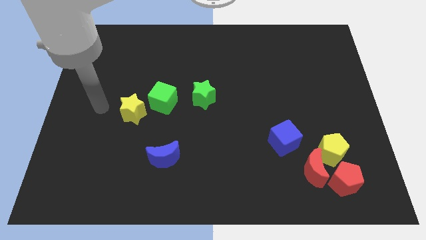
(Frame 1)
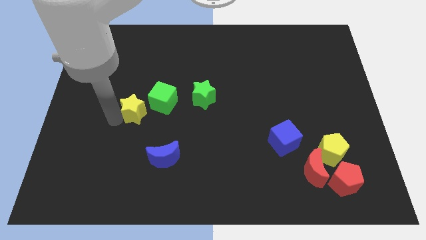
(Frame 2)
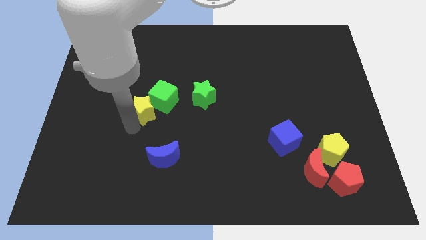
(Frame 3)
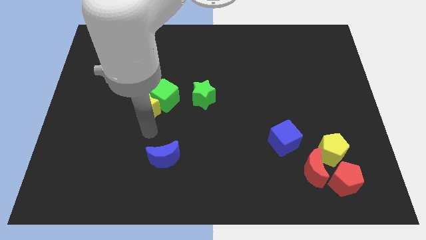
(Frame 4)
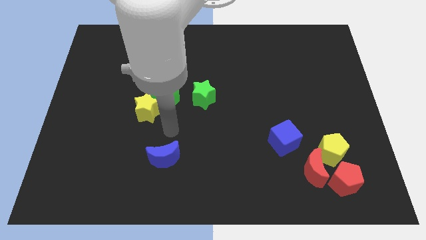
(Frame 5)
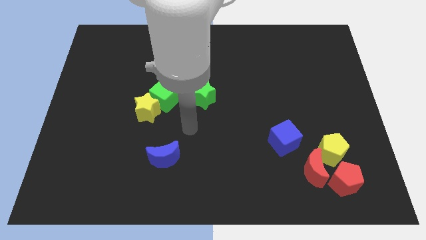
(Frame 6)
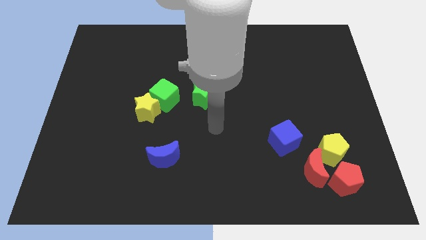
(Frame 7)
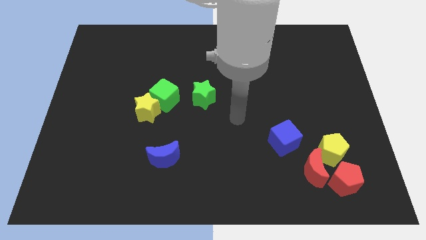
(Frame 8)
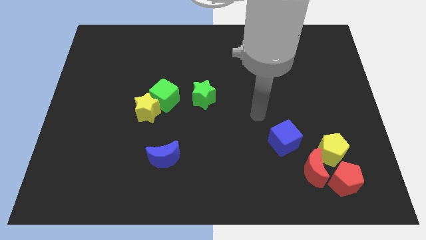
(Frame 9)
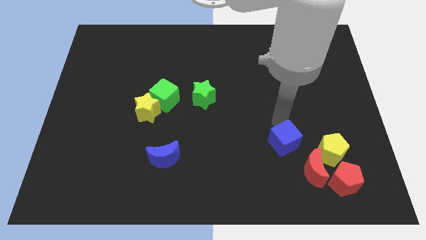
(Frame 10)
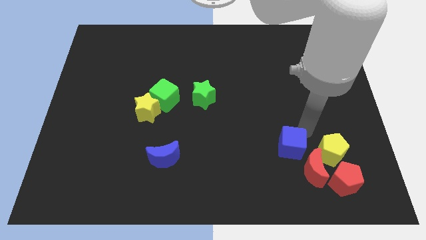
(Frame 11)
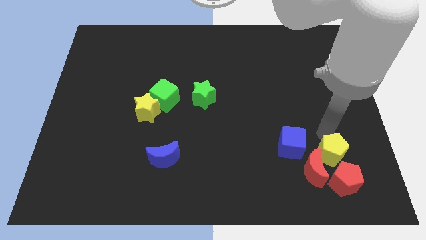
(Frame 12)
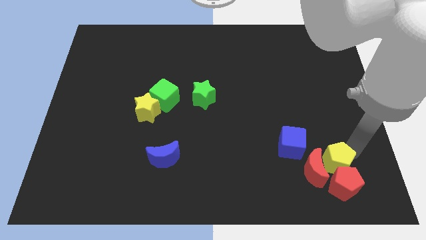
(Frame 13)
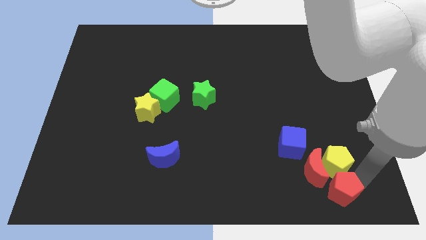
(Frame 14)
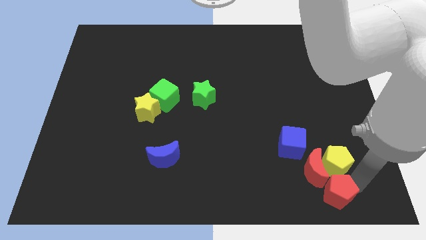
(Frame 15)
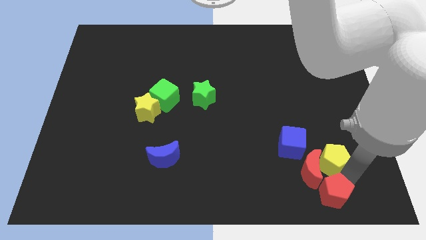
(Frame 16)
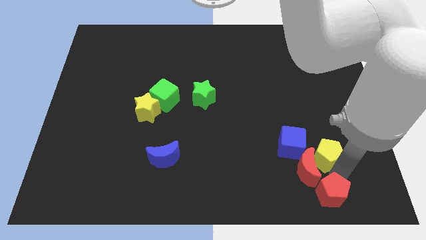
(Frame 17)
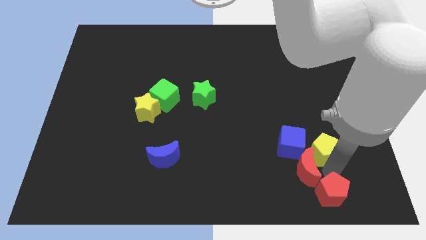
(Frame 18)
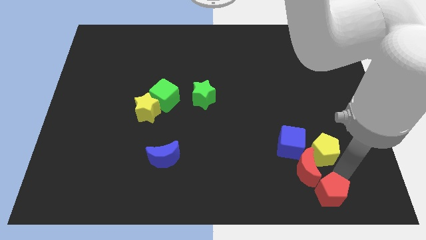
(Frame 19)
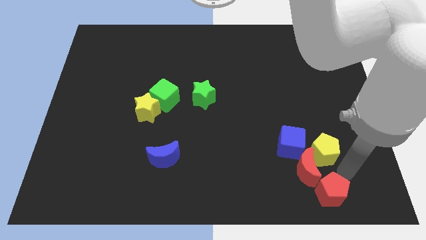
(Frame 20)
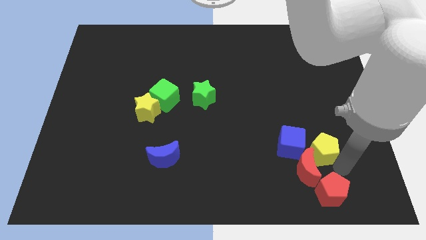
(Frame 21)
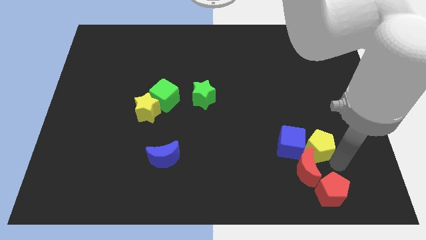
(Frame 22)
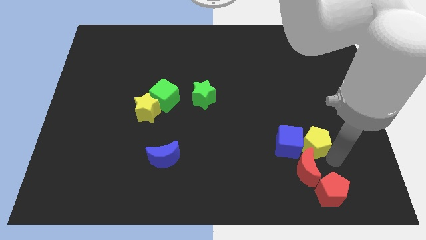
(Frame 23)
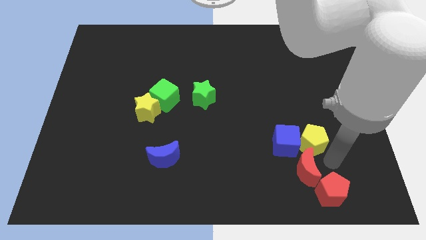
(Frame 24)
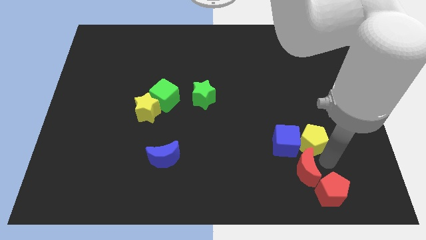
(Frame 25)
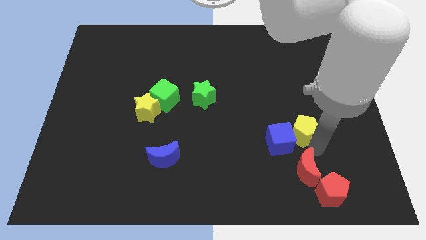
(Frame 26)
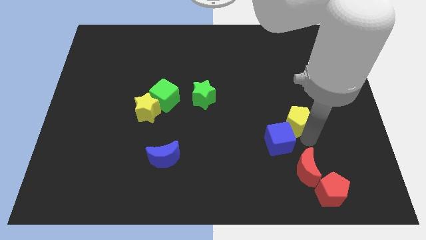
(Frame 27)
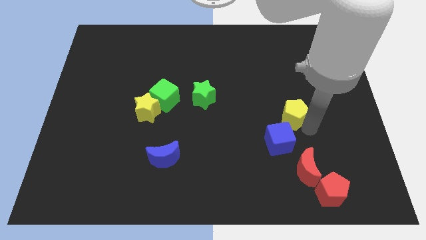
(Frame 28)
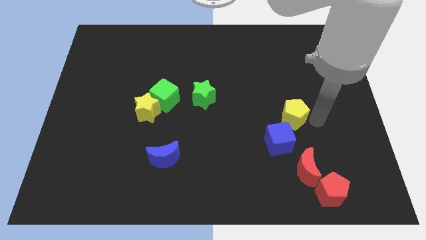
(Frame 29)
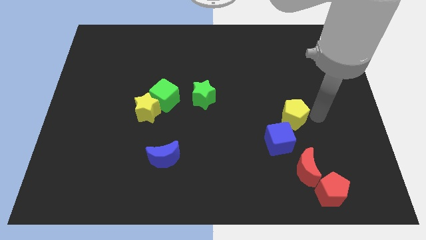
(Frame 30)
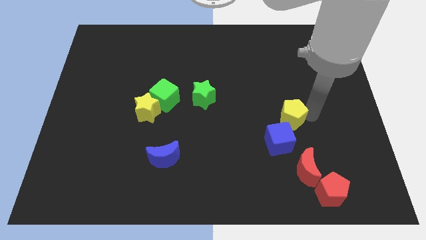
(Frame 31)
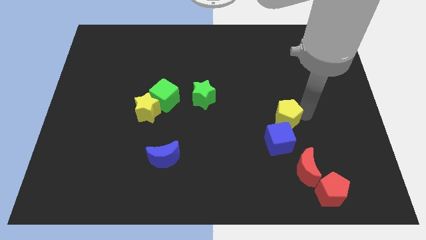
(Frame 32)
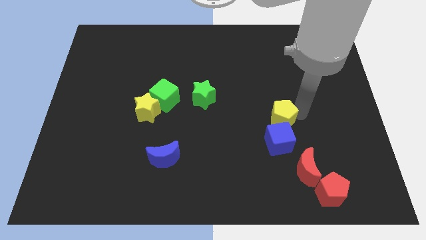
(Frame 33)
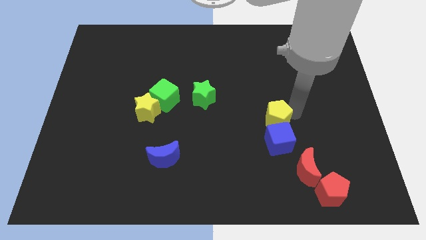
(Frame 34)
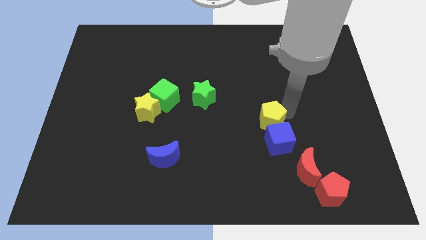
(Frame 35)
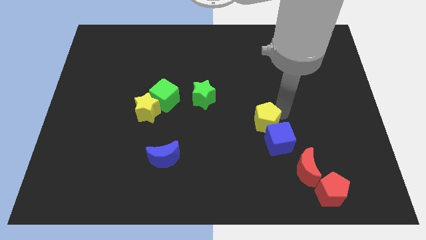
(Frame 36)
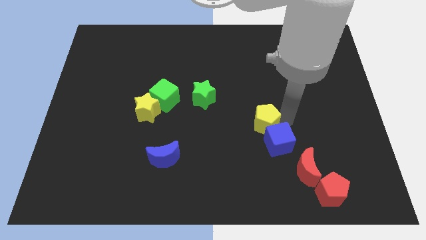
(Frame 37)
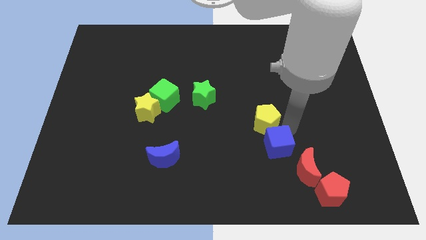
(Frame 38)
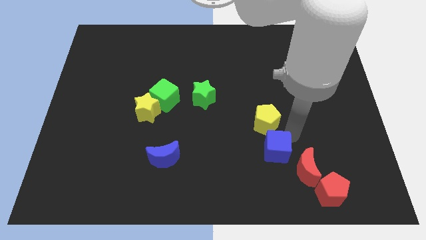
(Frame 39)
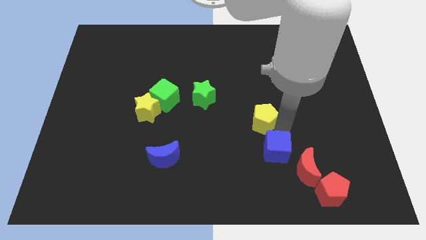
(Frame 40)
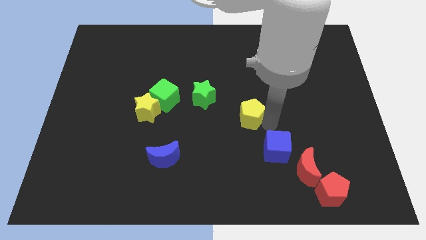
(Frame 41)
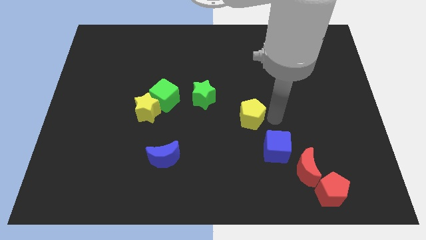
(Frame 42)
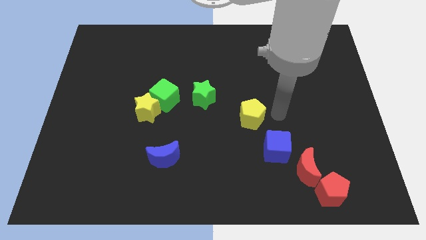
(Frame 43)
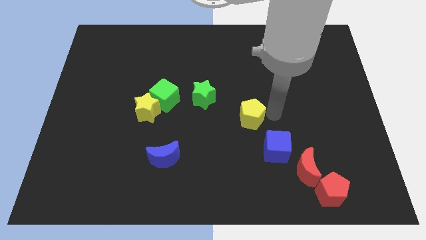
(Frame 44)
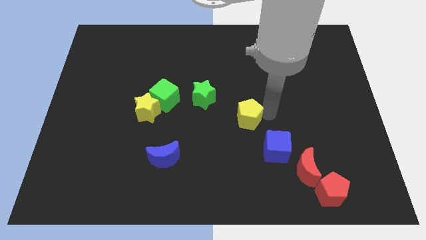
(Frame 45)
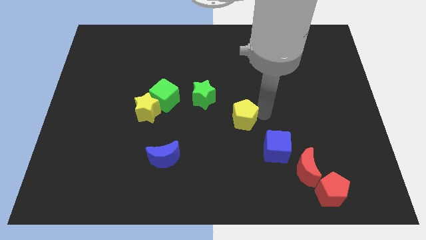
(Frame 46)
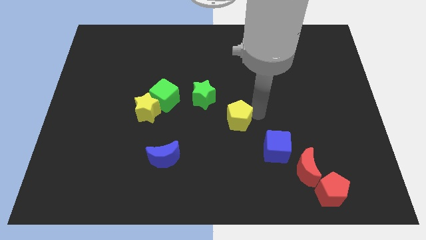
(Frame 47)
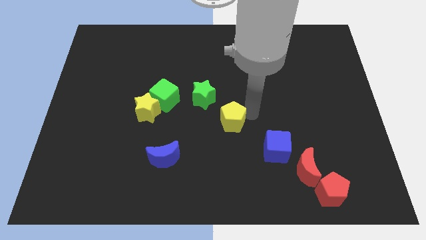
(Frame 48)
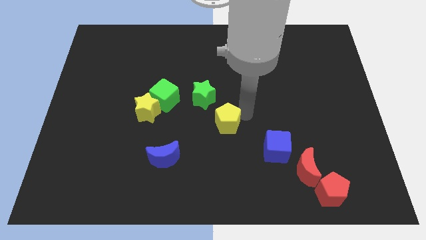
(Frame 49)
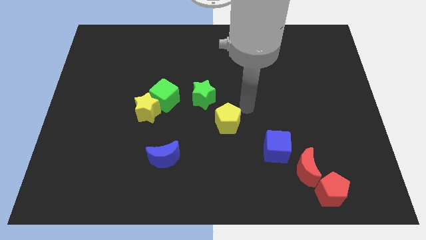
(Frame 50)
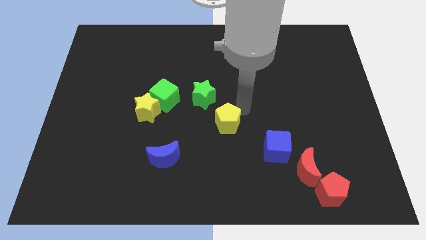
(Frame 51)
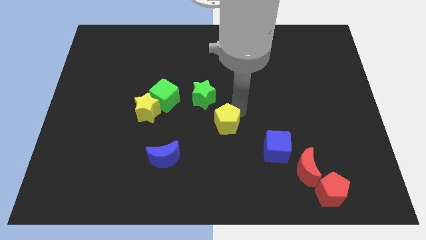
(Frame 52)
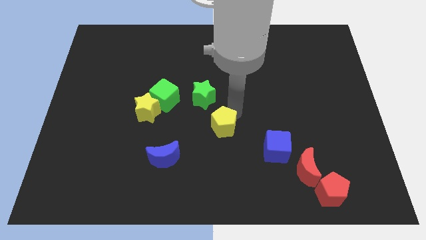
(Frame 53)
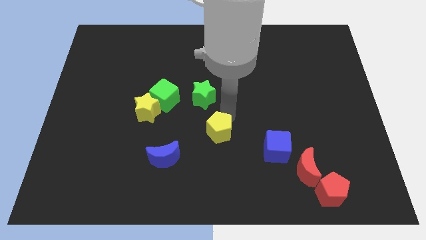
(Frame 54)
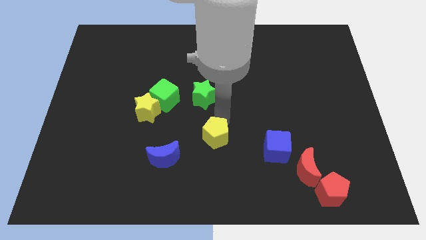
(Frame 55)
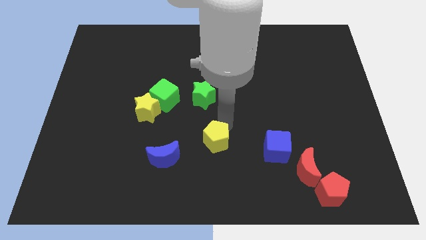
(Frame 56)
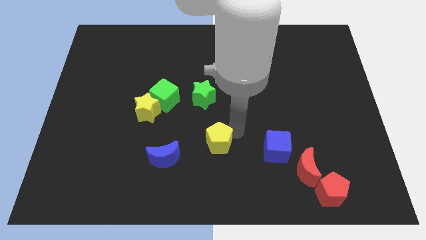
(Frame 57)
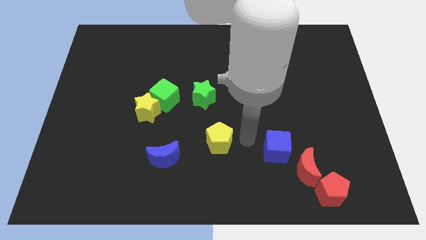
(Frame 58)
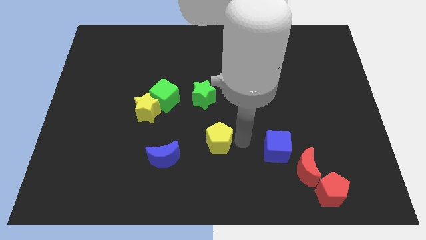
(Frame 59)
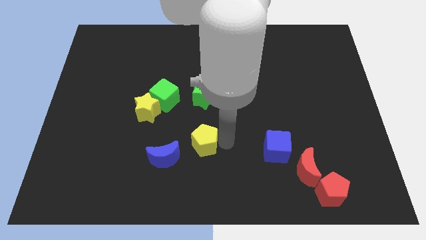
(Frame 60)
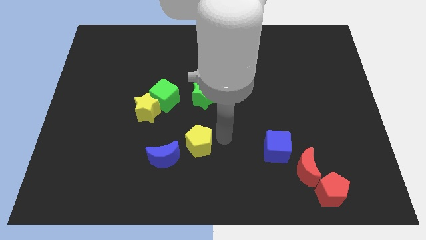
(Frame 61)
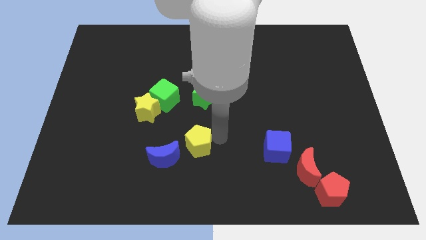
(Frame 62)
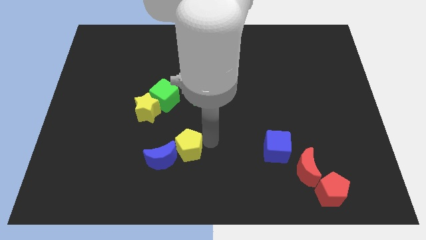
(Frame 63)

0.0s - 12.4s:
slide the yellow pentagon to the blue moon
